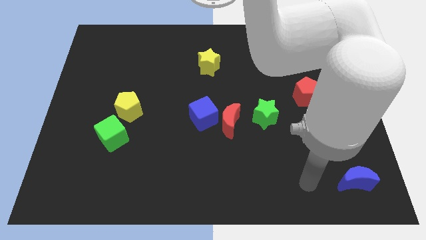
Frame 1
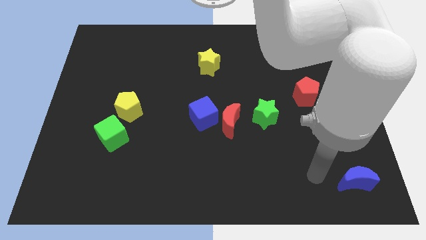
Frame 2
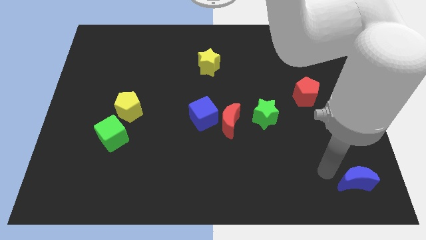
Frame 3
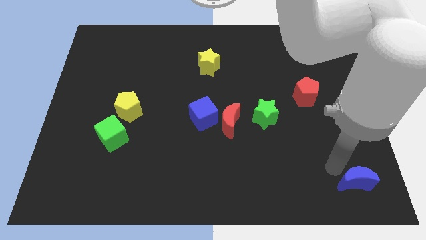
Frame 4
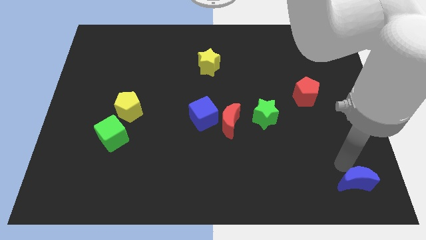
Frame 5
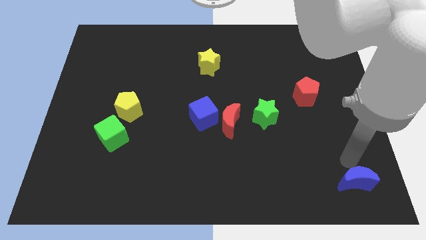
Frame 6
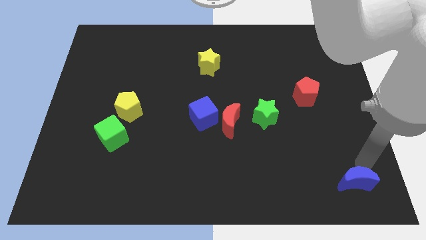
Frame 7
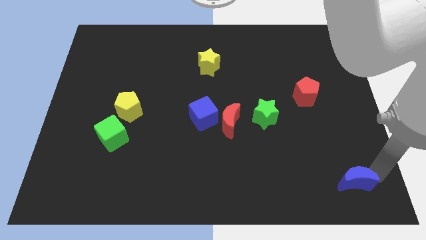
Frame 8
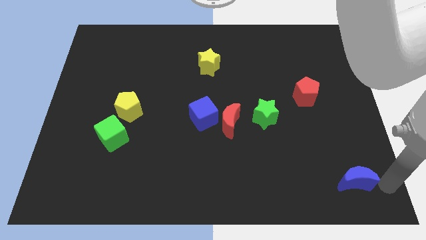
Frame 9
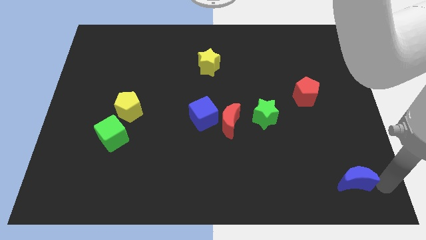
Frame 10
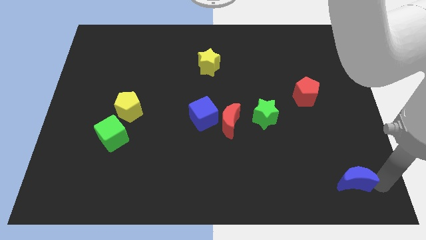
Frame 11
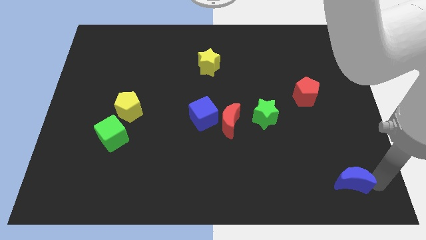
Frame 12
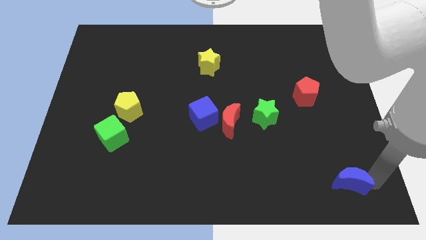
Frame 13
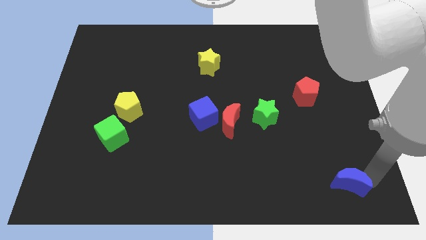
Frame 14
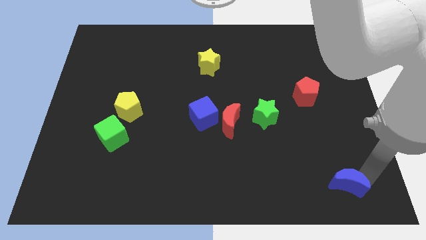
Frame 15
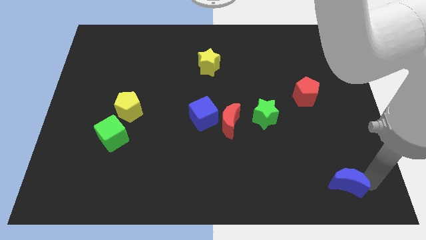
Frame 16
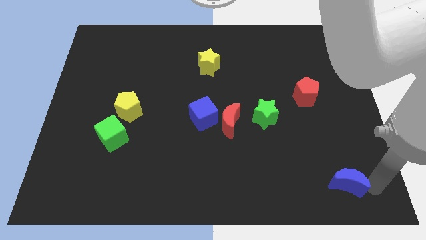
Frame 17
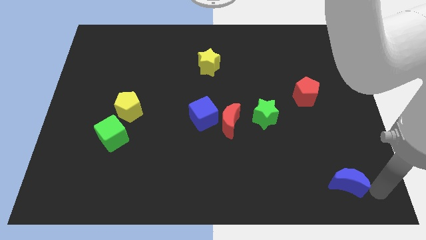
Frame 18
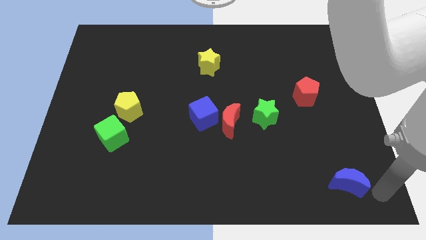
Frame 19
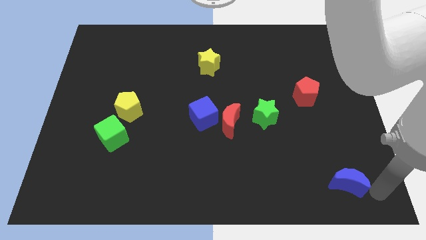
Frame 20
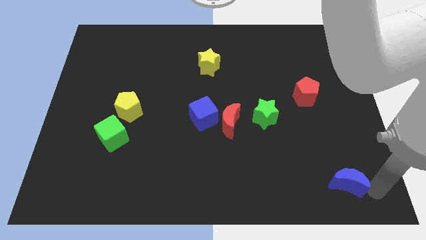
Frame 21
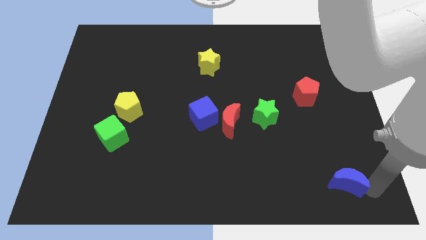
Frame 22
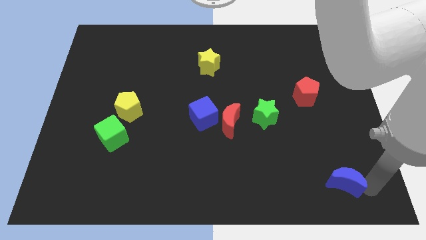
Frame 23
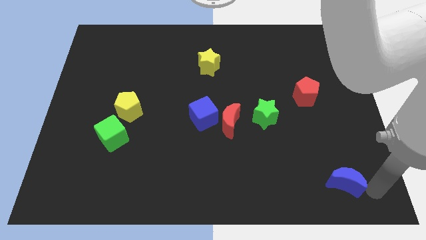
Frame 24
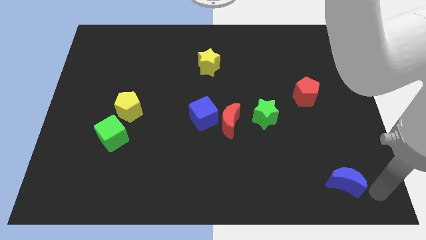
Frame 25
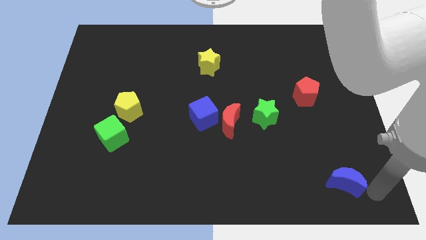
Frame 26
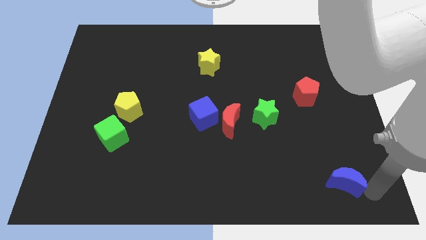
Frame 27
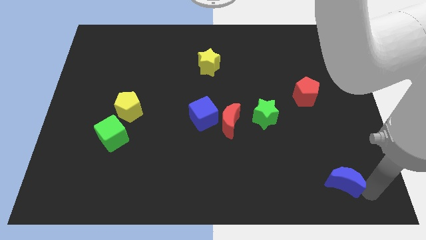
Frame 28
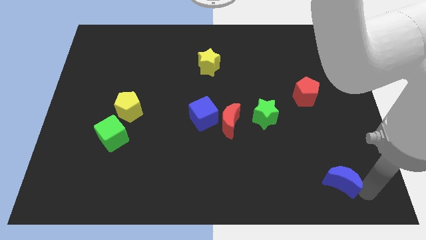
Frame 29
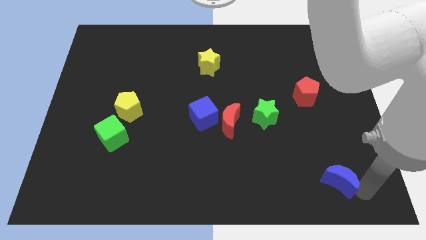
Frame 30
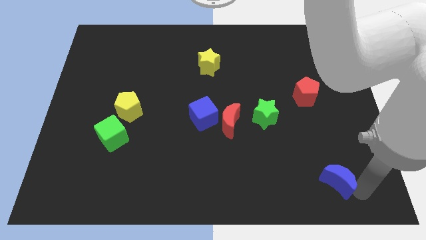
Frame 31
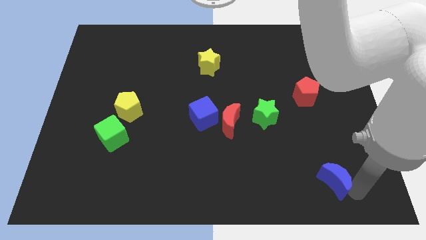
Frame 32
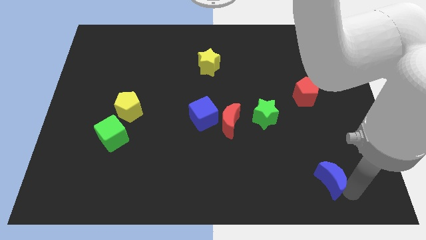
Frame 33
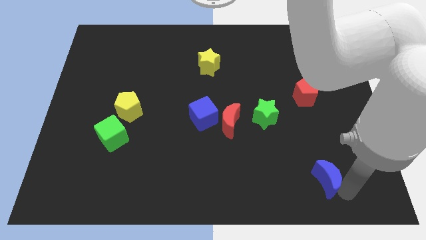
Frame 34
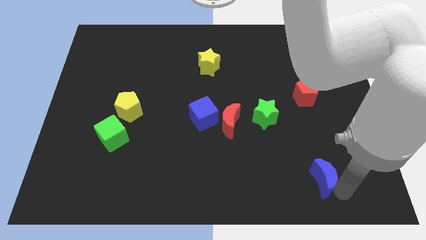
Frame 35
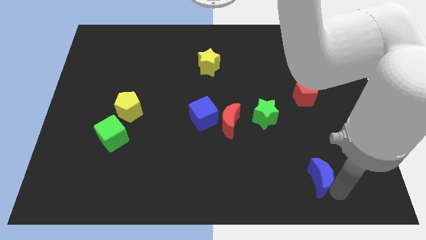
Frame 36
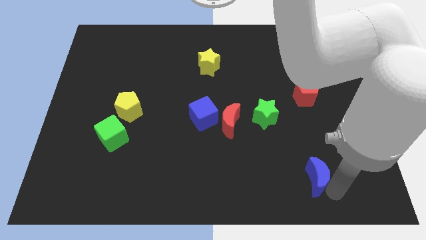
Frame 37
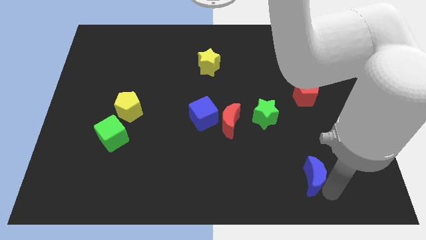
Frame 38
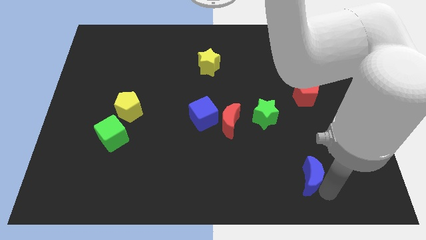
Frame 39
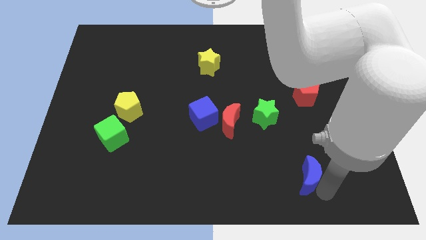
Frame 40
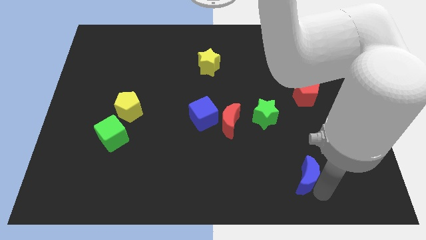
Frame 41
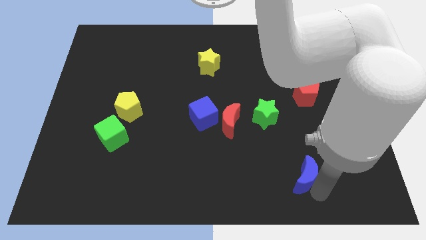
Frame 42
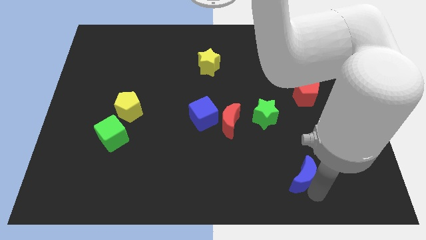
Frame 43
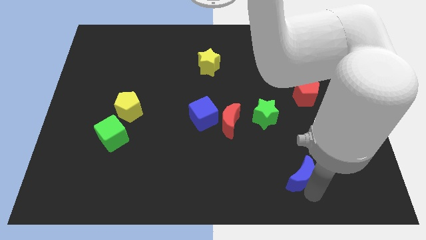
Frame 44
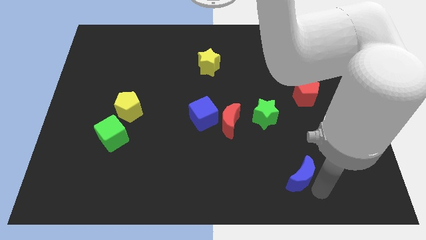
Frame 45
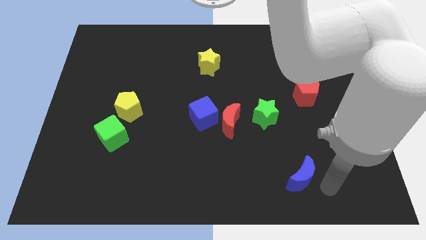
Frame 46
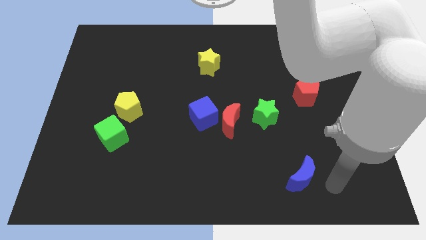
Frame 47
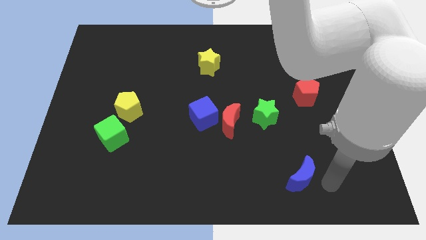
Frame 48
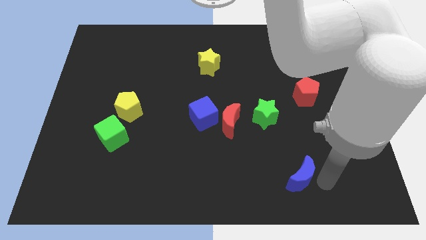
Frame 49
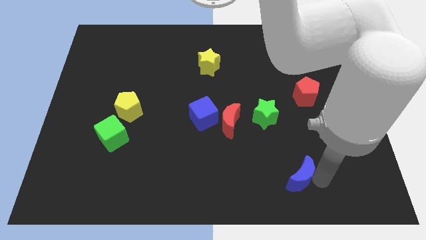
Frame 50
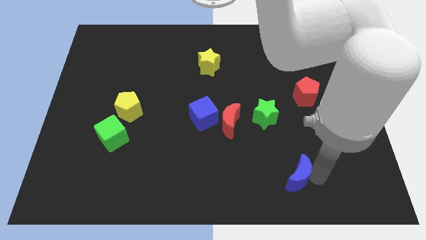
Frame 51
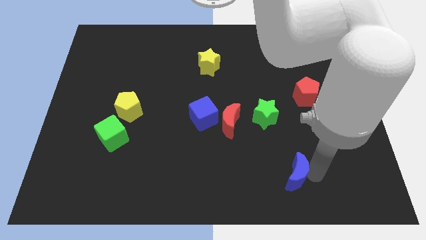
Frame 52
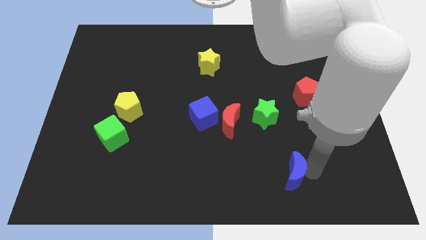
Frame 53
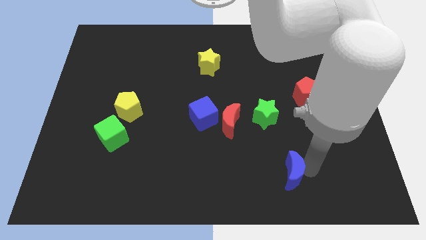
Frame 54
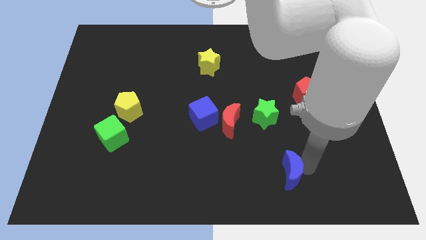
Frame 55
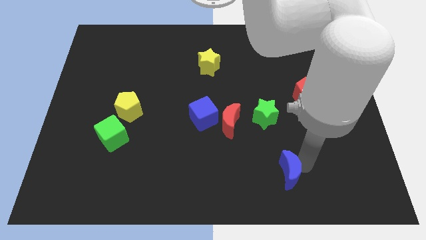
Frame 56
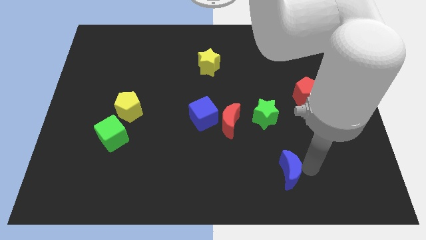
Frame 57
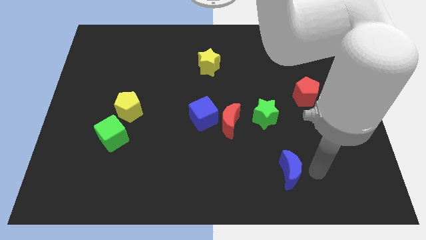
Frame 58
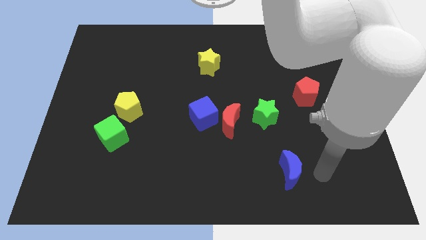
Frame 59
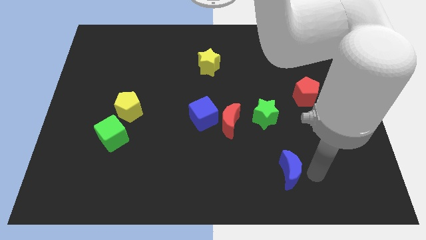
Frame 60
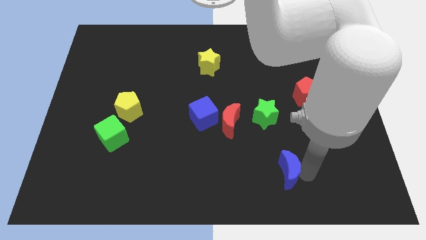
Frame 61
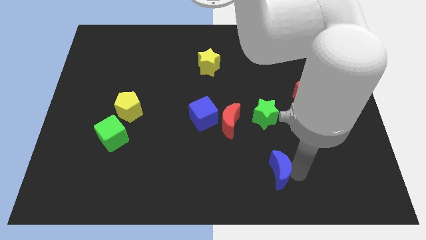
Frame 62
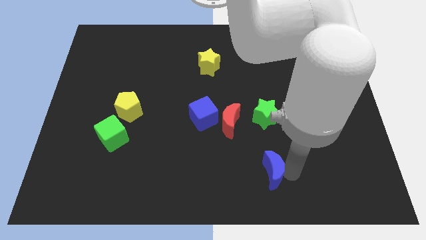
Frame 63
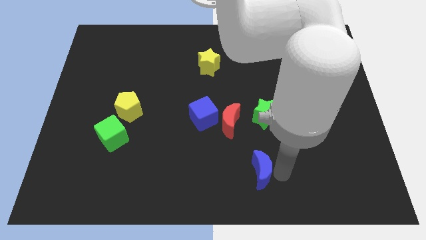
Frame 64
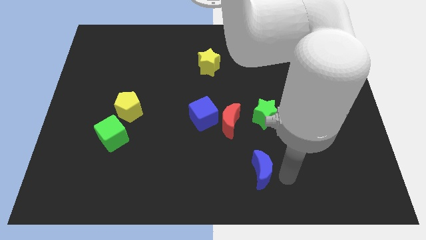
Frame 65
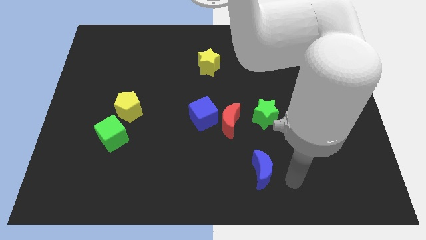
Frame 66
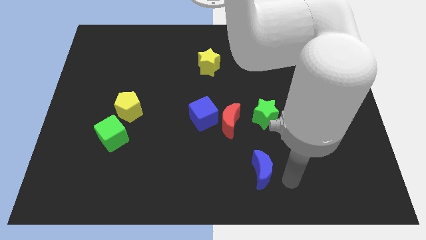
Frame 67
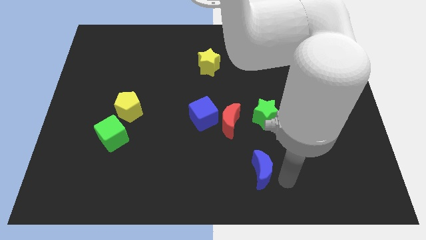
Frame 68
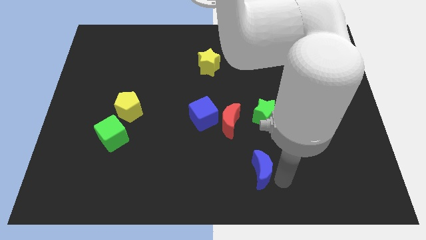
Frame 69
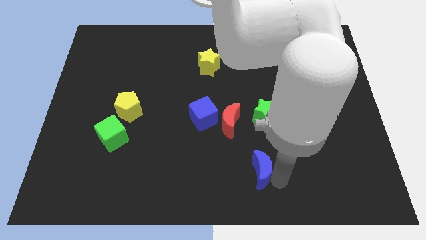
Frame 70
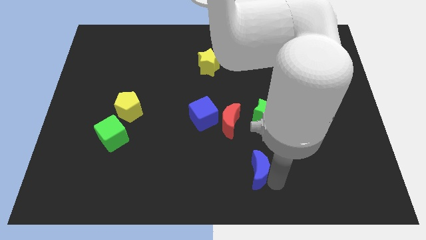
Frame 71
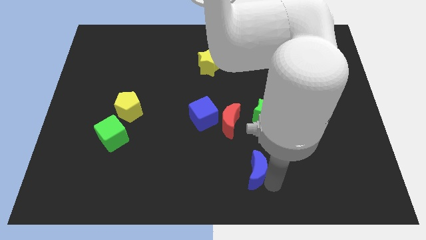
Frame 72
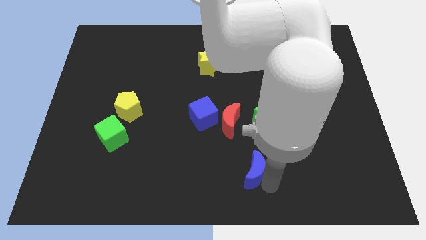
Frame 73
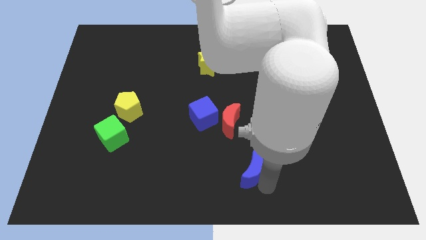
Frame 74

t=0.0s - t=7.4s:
move the blue moon to the bottom side of the red moon

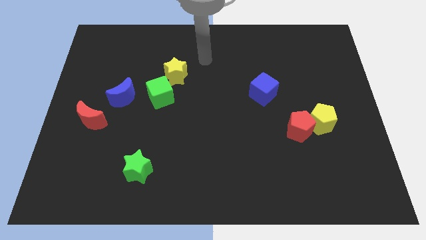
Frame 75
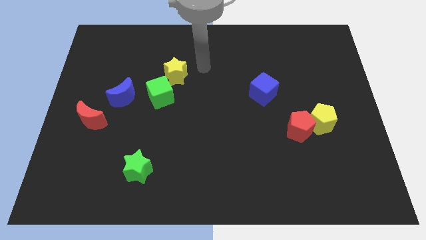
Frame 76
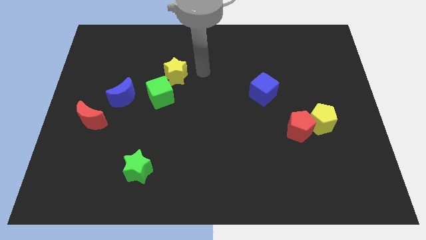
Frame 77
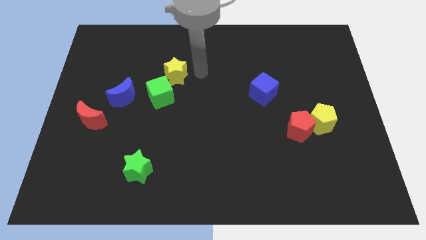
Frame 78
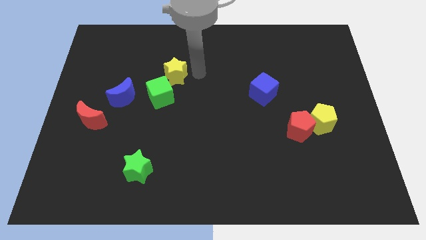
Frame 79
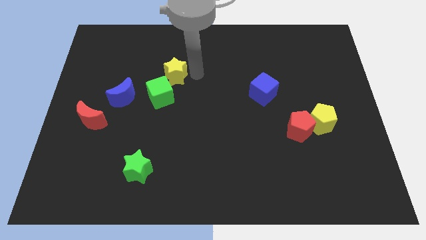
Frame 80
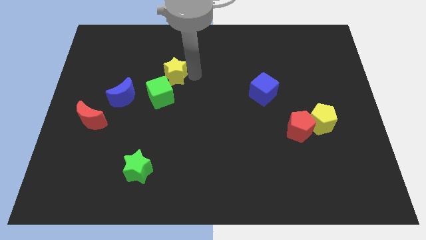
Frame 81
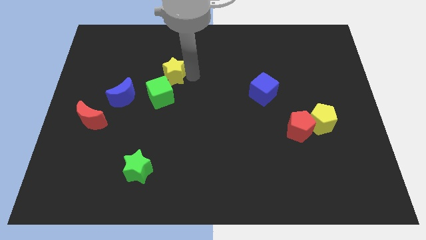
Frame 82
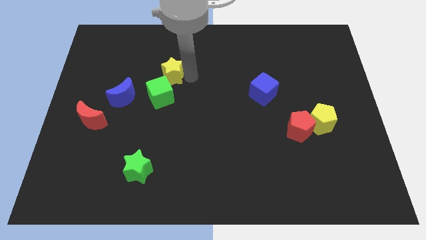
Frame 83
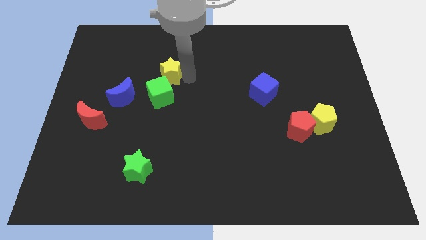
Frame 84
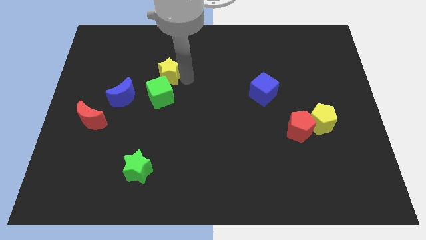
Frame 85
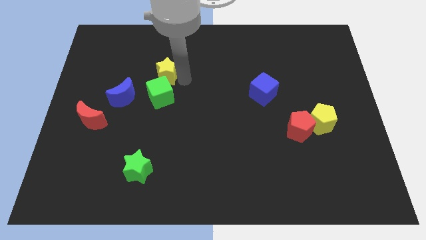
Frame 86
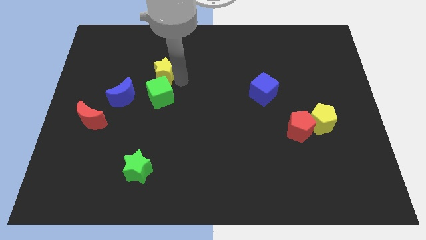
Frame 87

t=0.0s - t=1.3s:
push the yellow star to the top left of the green cube
